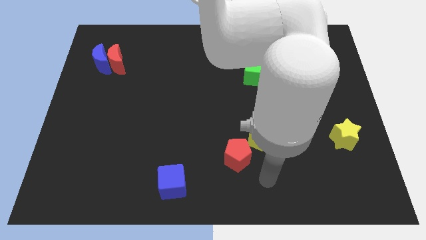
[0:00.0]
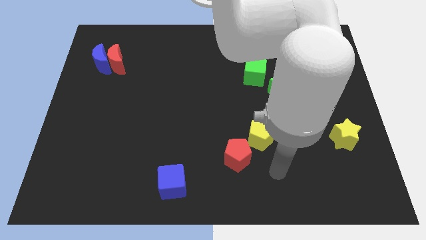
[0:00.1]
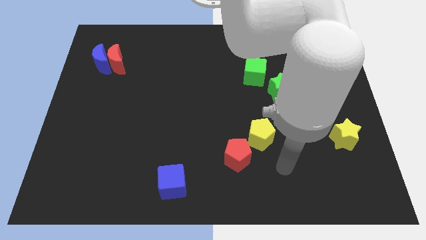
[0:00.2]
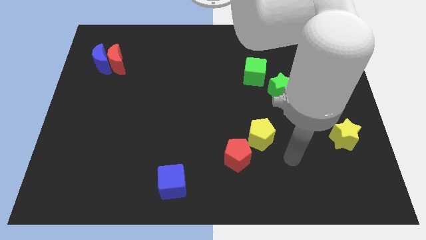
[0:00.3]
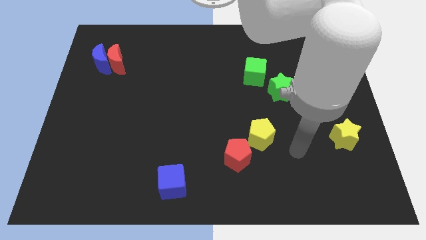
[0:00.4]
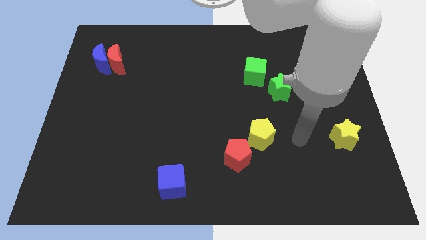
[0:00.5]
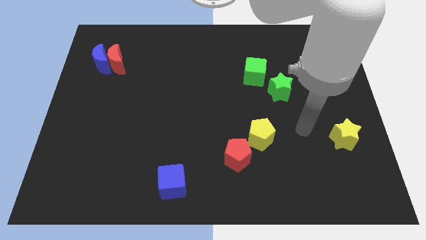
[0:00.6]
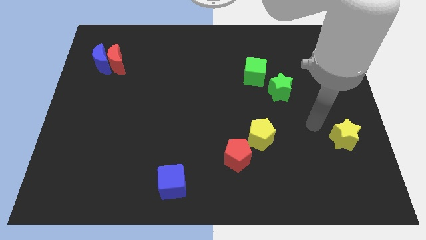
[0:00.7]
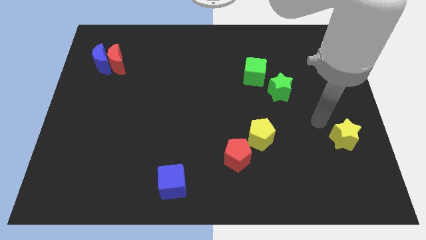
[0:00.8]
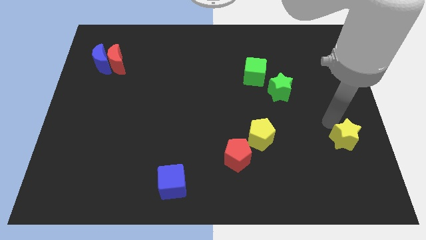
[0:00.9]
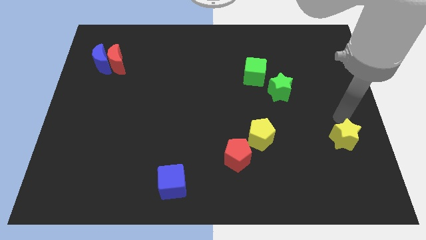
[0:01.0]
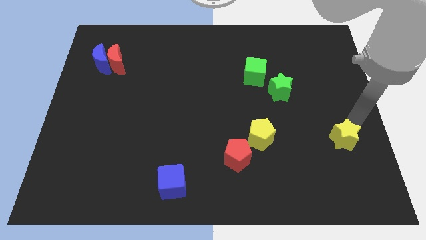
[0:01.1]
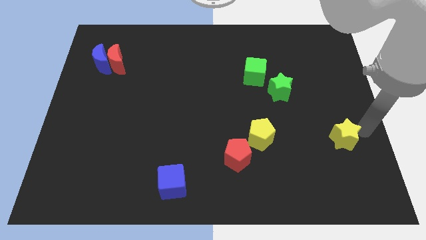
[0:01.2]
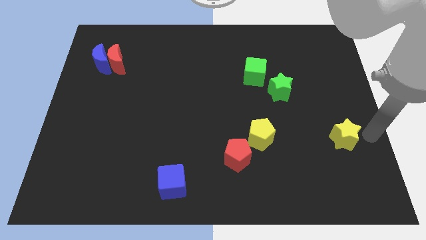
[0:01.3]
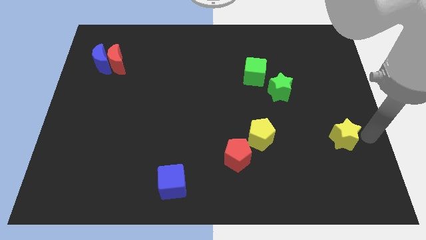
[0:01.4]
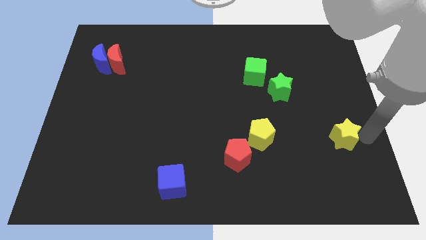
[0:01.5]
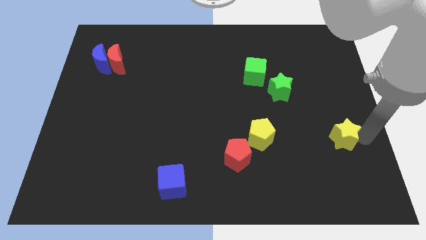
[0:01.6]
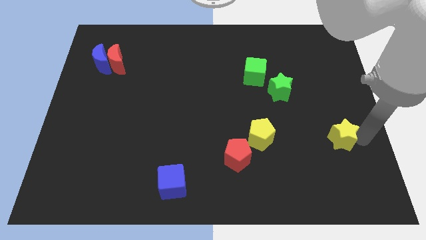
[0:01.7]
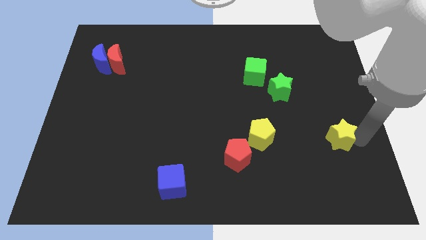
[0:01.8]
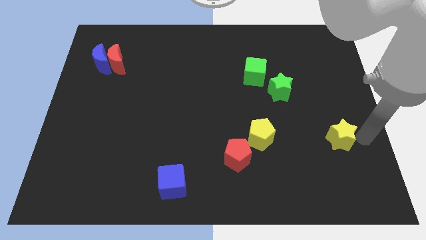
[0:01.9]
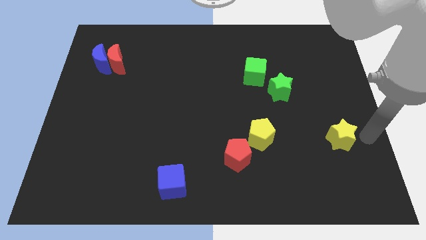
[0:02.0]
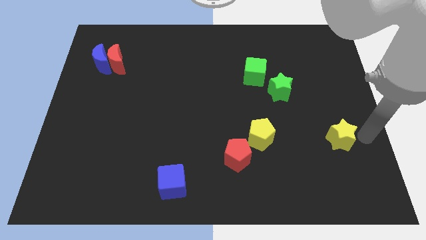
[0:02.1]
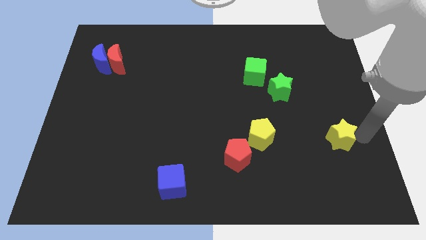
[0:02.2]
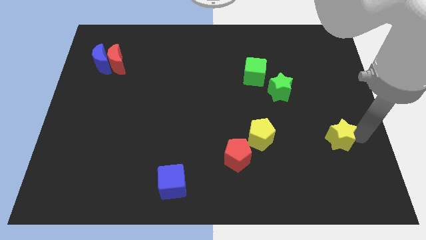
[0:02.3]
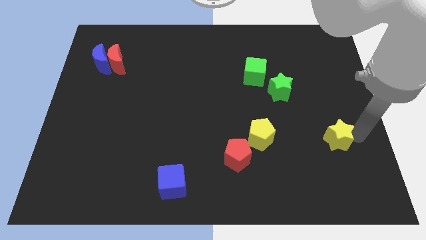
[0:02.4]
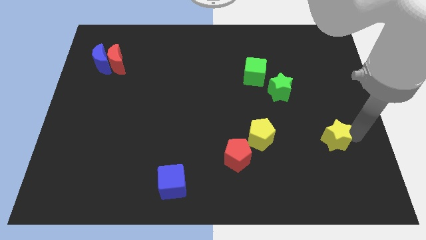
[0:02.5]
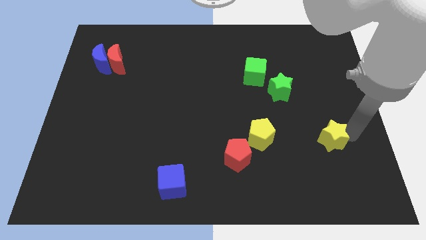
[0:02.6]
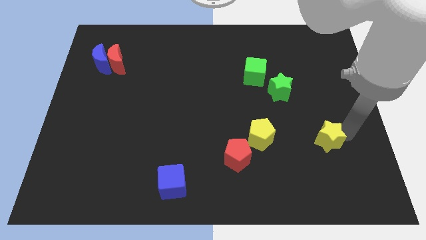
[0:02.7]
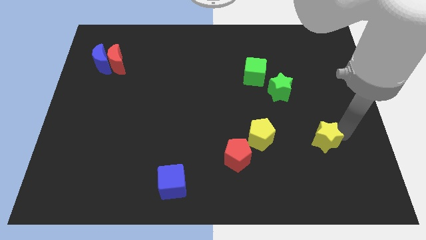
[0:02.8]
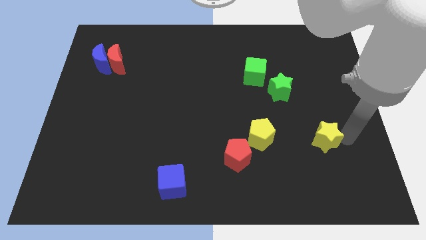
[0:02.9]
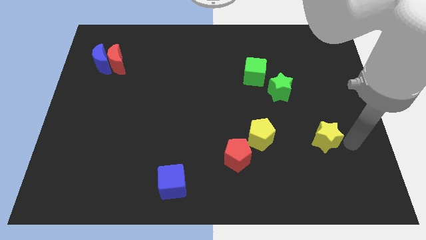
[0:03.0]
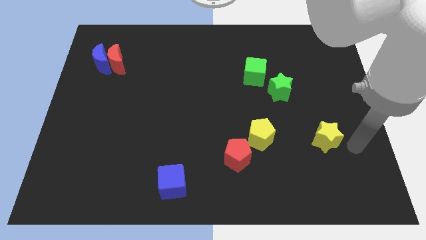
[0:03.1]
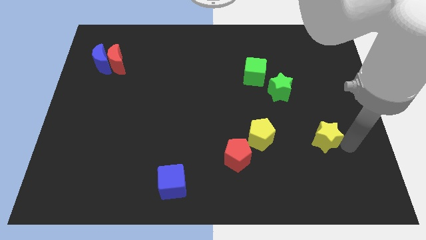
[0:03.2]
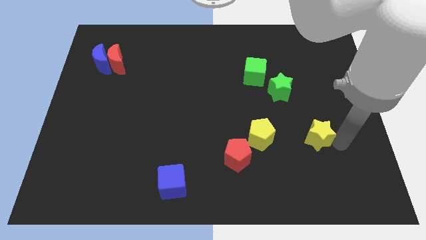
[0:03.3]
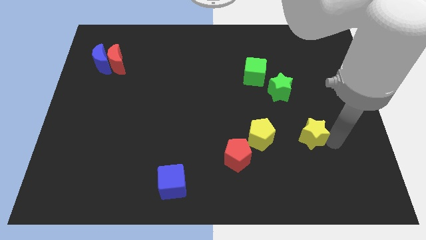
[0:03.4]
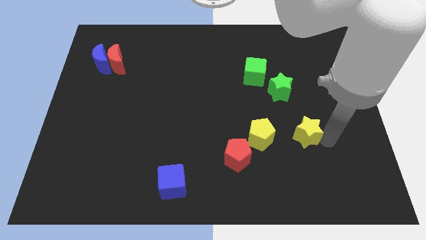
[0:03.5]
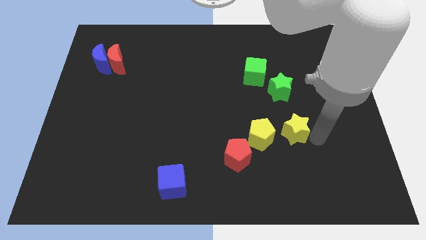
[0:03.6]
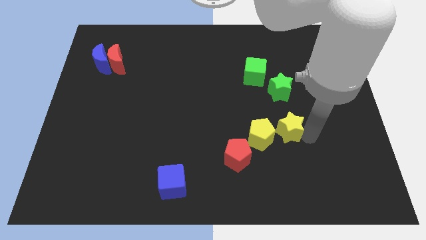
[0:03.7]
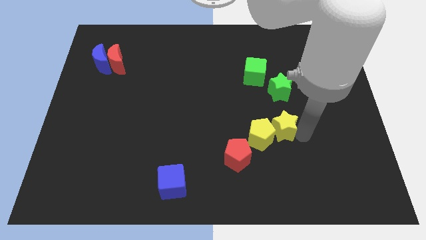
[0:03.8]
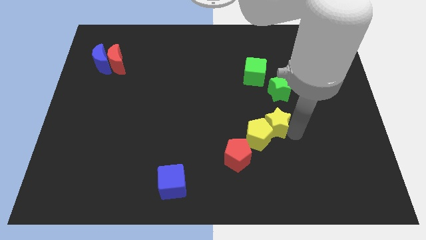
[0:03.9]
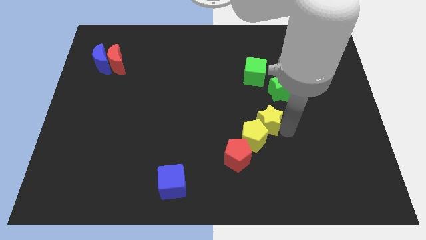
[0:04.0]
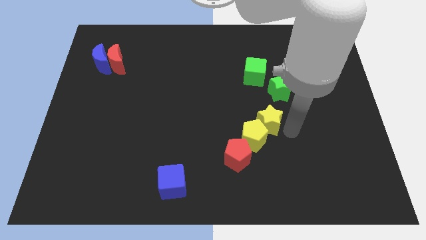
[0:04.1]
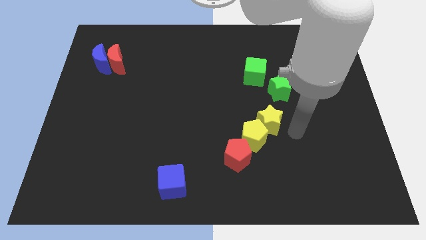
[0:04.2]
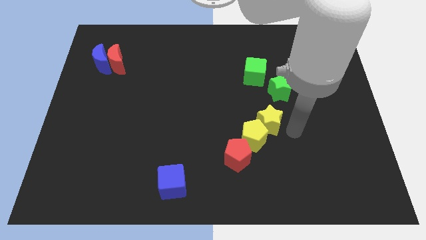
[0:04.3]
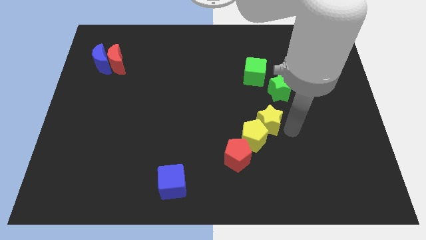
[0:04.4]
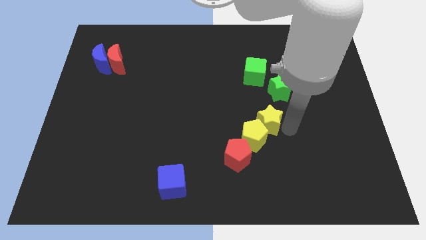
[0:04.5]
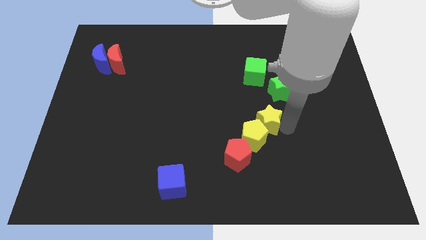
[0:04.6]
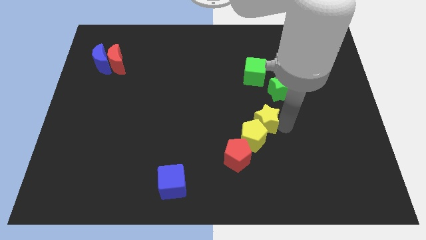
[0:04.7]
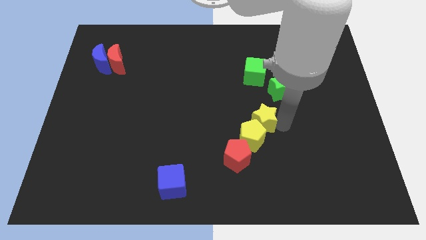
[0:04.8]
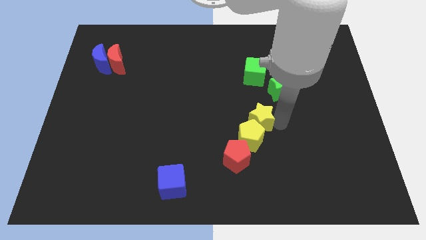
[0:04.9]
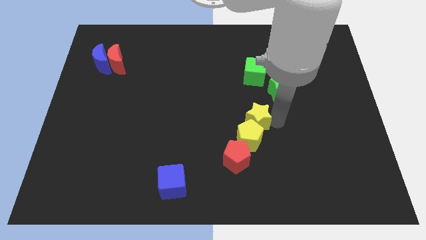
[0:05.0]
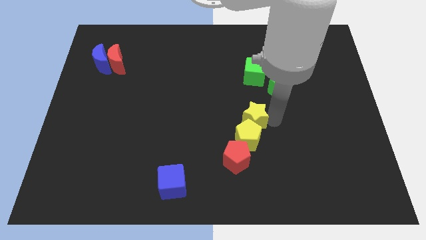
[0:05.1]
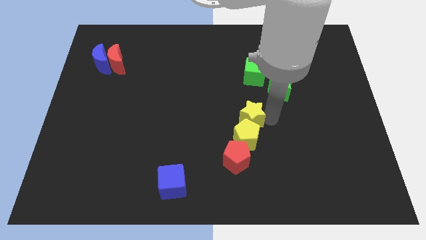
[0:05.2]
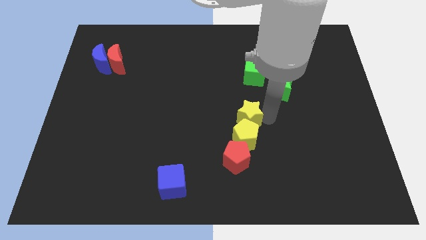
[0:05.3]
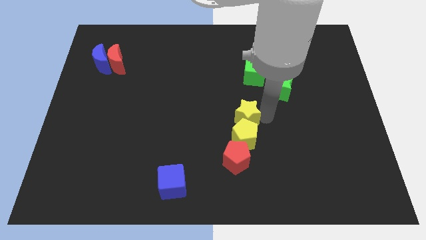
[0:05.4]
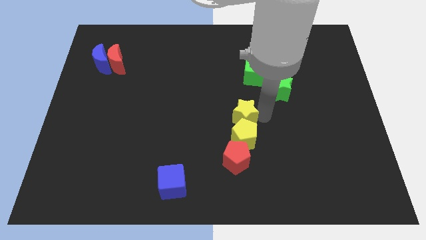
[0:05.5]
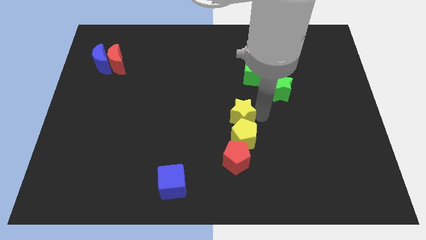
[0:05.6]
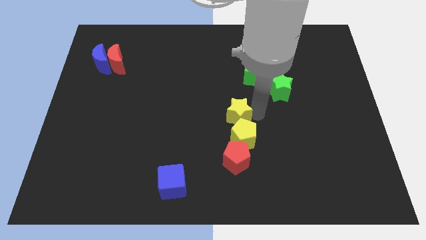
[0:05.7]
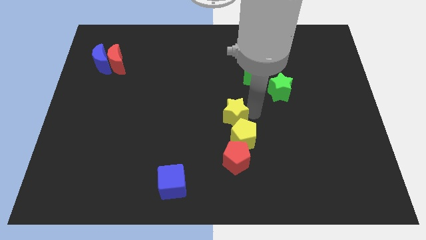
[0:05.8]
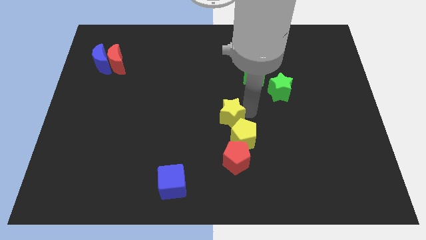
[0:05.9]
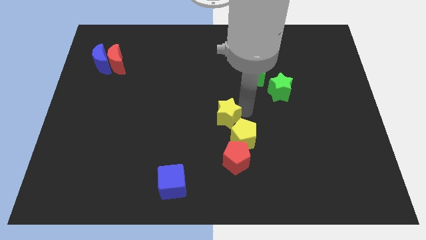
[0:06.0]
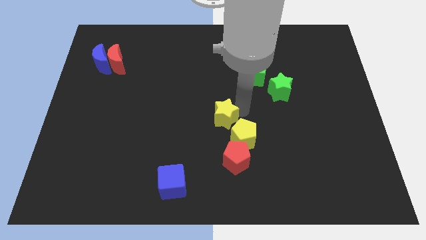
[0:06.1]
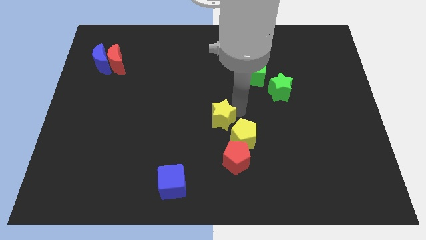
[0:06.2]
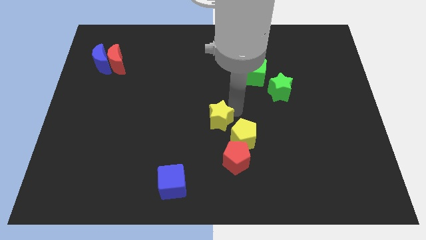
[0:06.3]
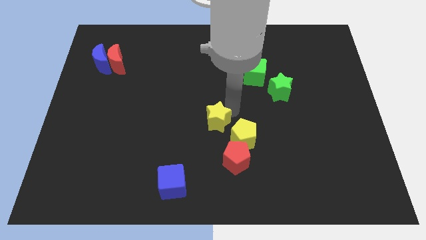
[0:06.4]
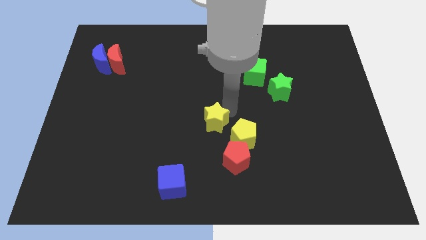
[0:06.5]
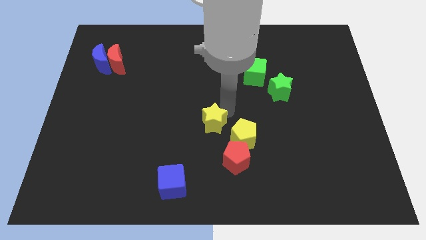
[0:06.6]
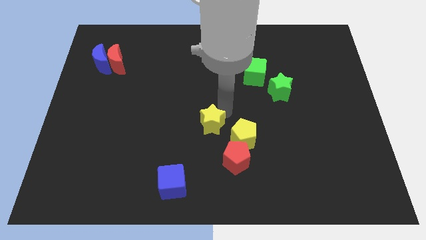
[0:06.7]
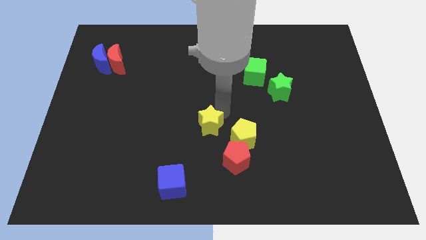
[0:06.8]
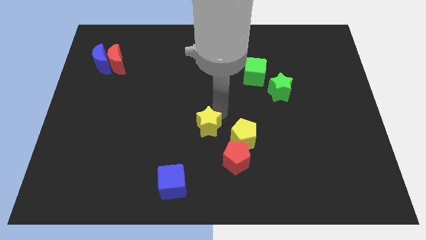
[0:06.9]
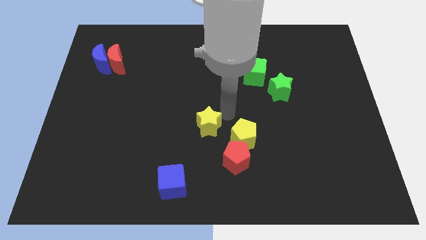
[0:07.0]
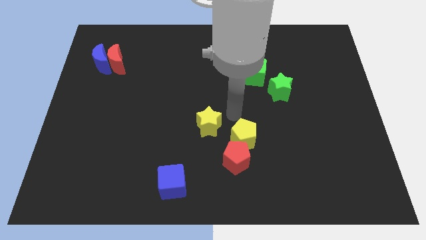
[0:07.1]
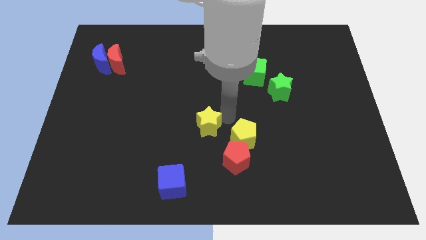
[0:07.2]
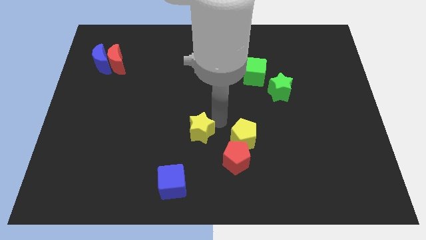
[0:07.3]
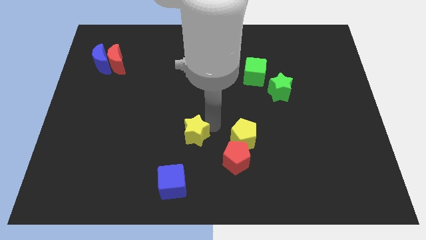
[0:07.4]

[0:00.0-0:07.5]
slide the yellow star above the blue cube
